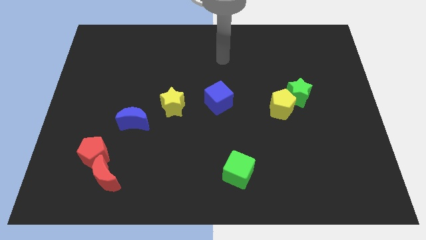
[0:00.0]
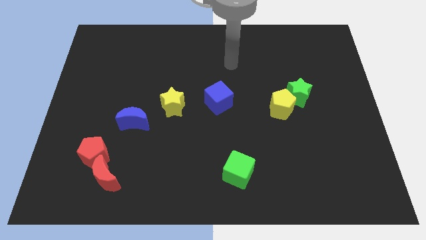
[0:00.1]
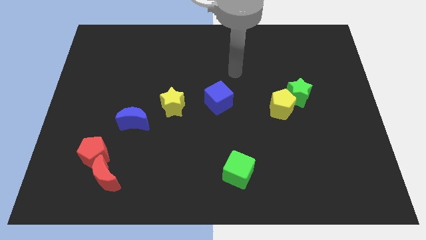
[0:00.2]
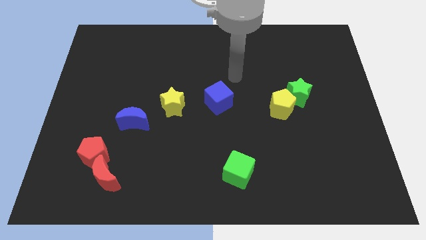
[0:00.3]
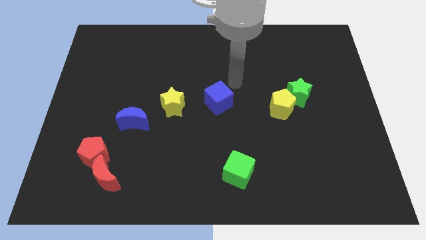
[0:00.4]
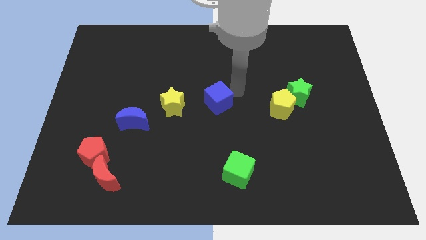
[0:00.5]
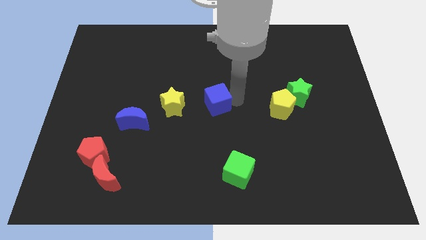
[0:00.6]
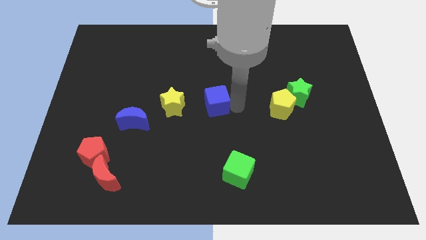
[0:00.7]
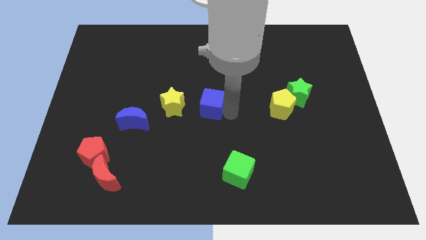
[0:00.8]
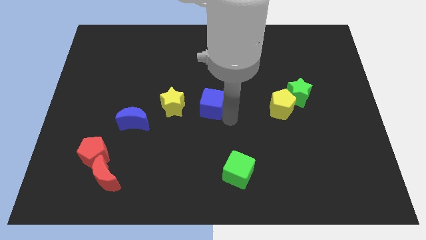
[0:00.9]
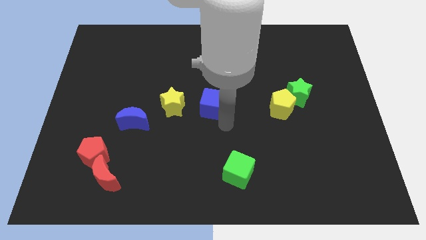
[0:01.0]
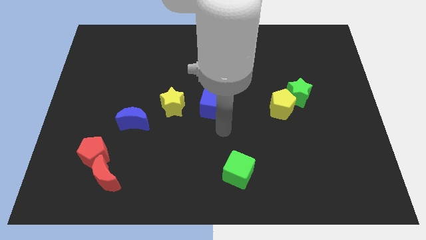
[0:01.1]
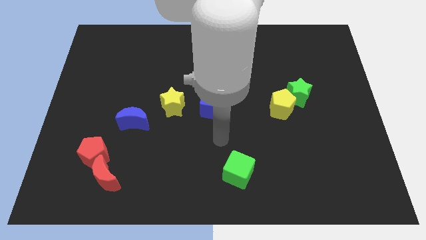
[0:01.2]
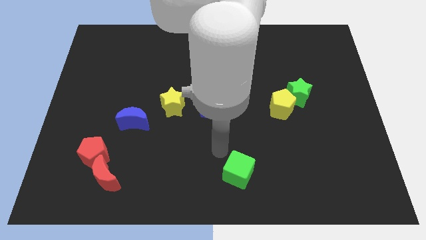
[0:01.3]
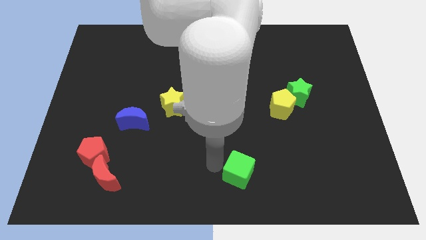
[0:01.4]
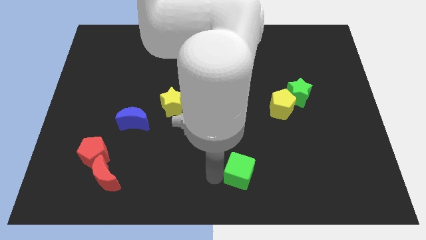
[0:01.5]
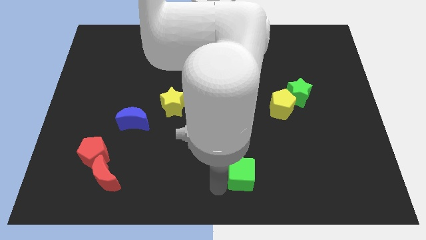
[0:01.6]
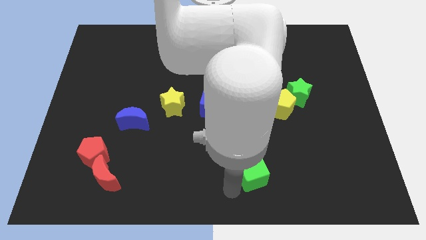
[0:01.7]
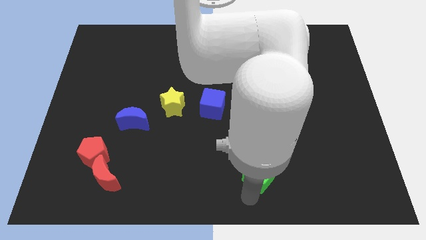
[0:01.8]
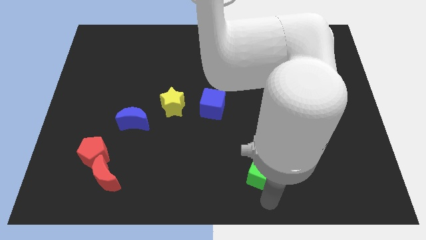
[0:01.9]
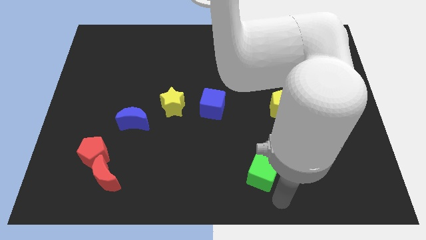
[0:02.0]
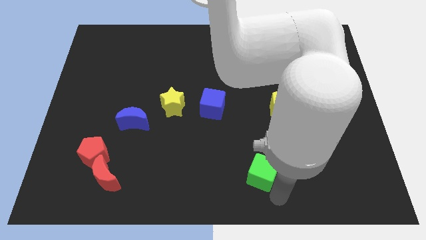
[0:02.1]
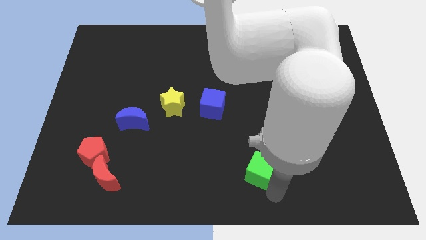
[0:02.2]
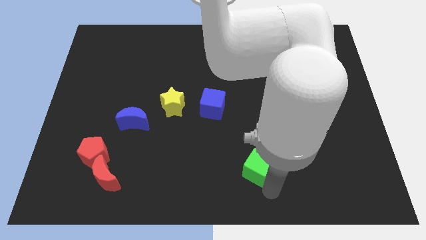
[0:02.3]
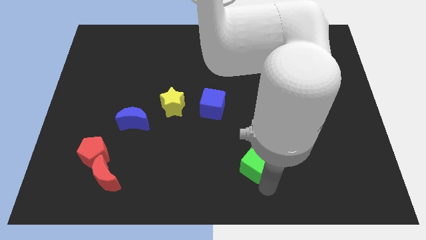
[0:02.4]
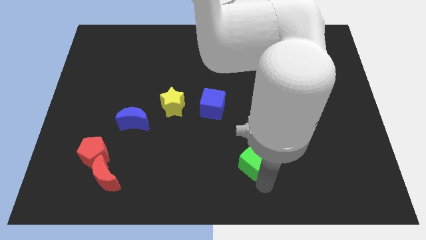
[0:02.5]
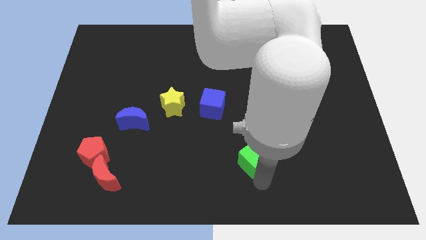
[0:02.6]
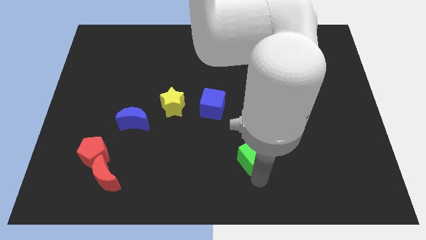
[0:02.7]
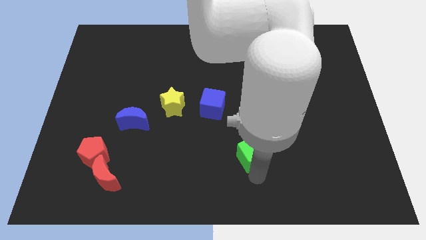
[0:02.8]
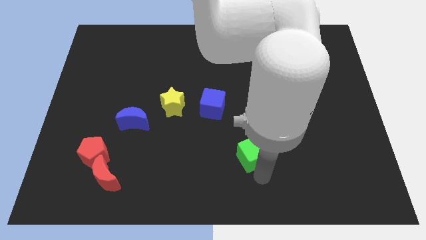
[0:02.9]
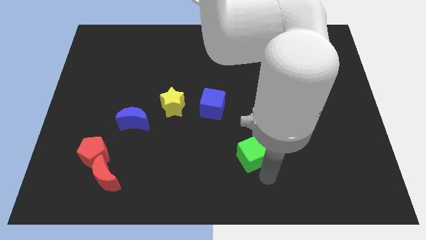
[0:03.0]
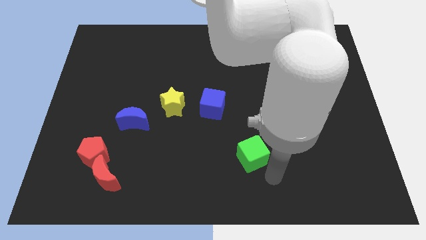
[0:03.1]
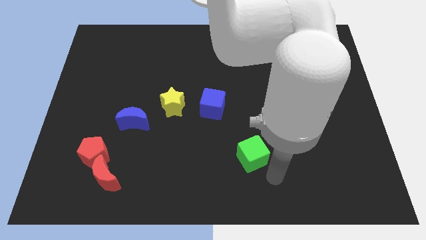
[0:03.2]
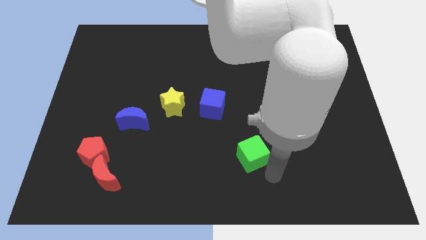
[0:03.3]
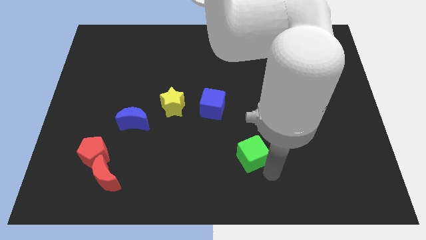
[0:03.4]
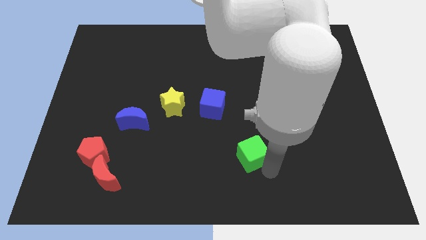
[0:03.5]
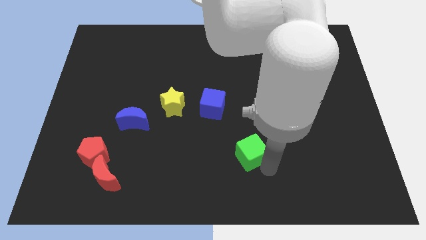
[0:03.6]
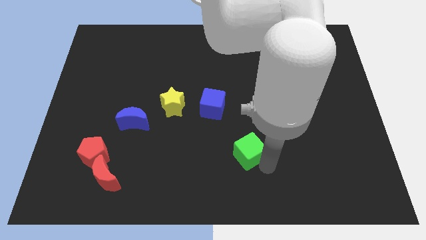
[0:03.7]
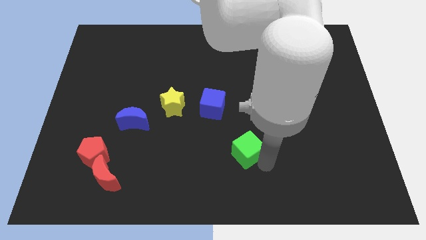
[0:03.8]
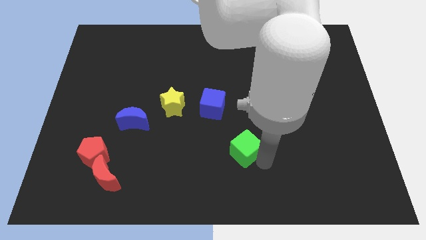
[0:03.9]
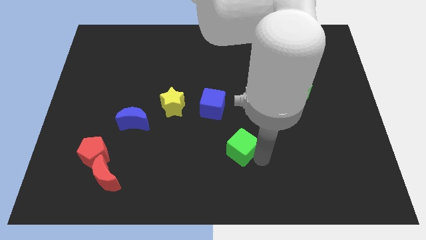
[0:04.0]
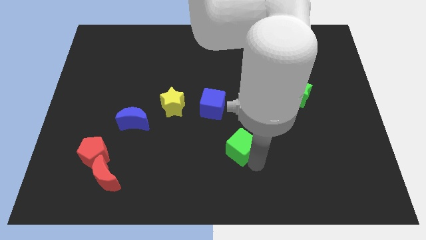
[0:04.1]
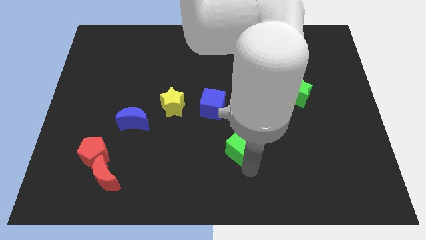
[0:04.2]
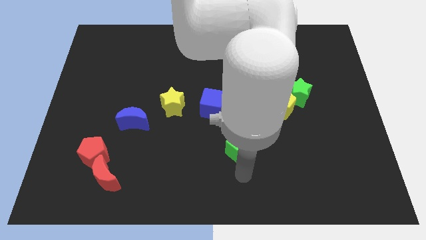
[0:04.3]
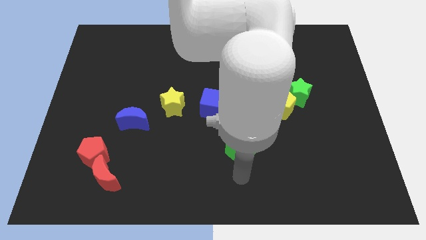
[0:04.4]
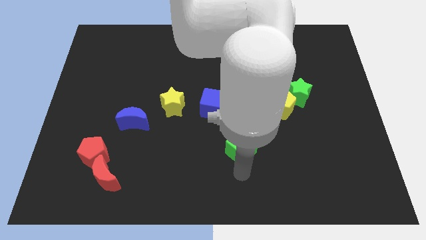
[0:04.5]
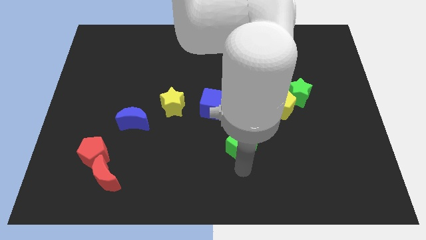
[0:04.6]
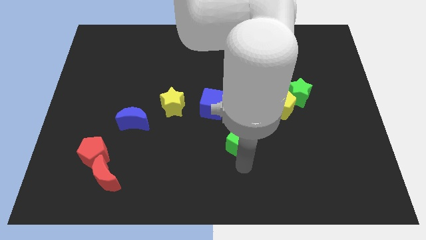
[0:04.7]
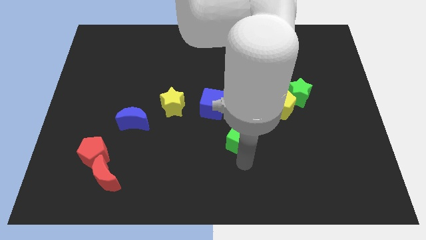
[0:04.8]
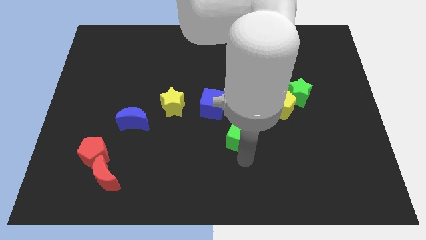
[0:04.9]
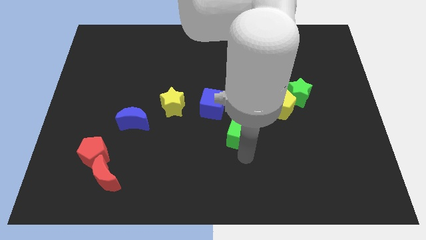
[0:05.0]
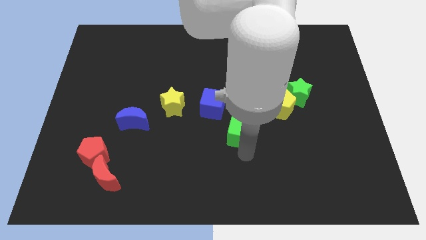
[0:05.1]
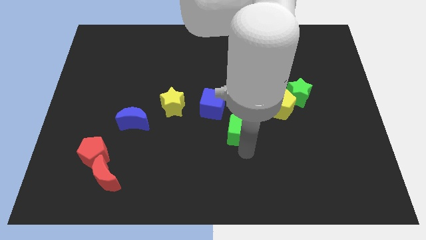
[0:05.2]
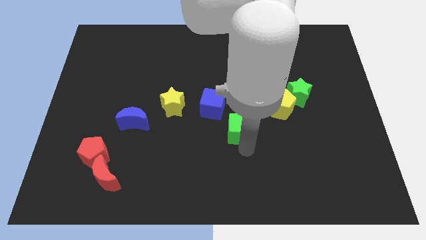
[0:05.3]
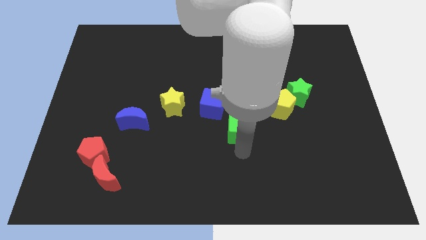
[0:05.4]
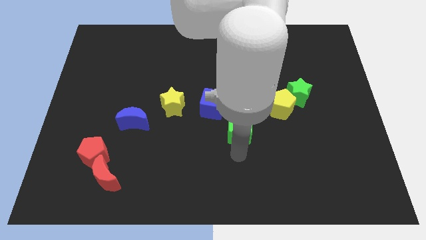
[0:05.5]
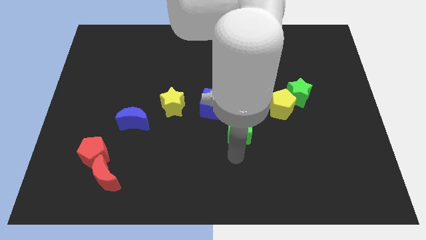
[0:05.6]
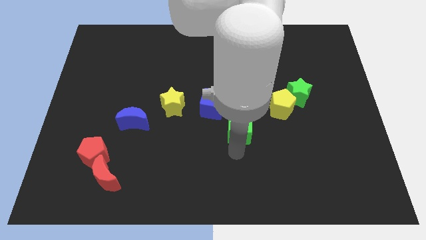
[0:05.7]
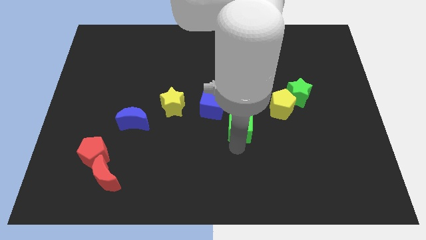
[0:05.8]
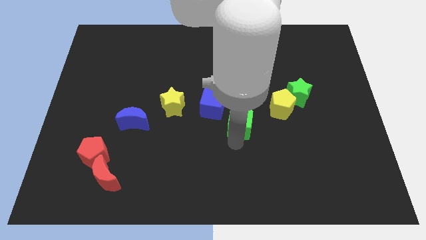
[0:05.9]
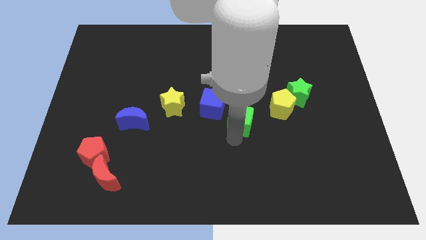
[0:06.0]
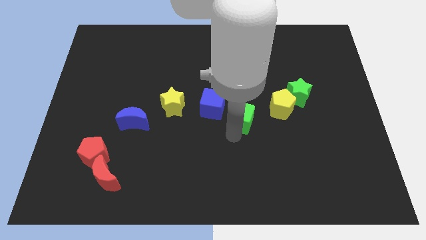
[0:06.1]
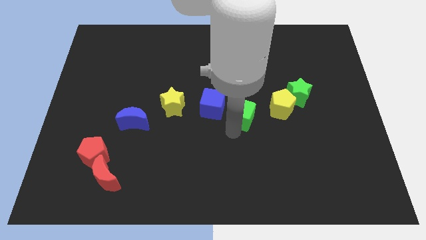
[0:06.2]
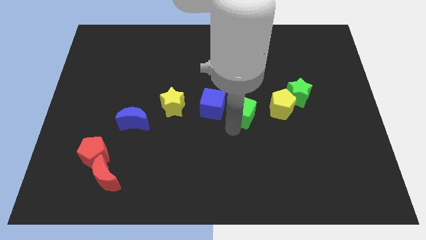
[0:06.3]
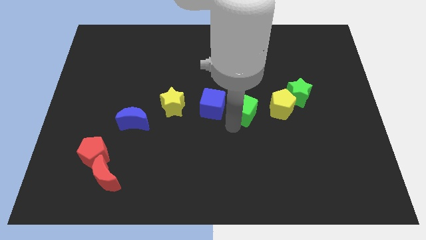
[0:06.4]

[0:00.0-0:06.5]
put the green cube just left of the green star

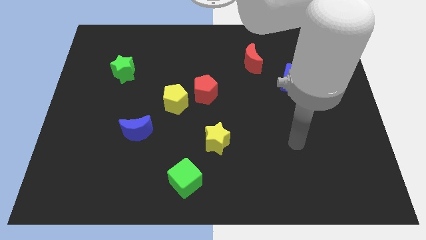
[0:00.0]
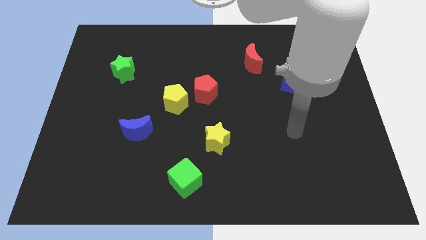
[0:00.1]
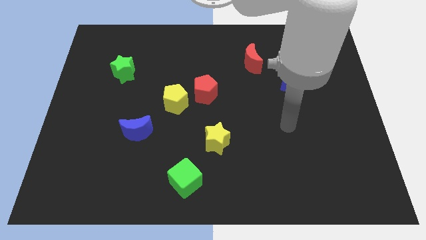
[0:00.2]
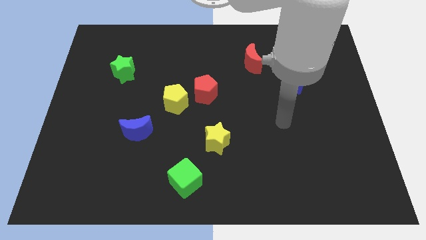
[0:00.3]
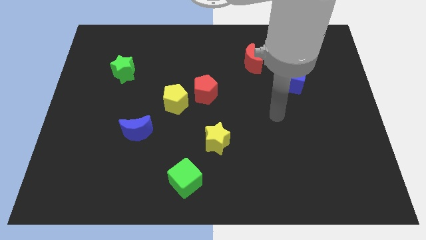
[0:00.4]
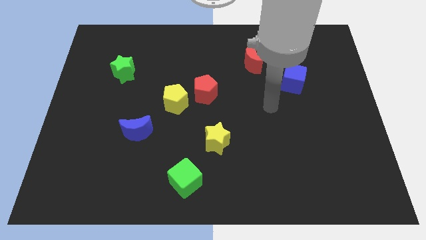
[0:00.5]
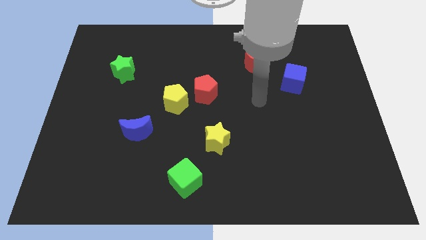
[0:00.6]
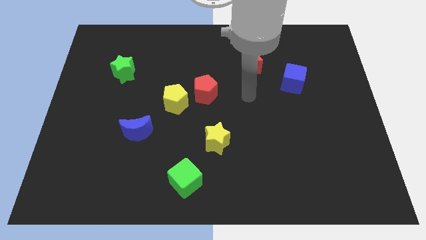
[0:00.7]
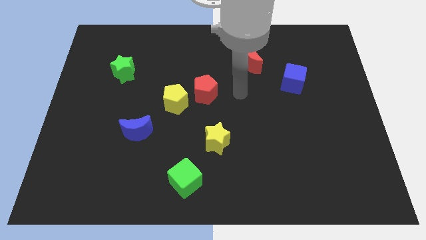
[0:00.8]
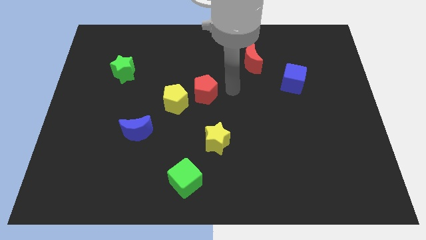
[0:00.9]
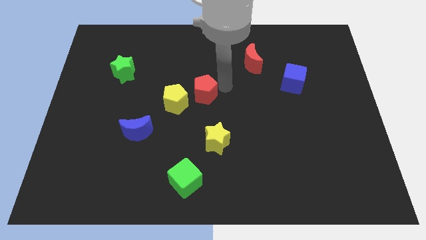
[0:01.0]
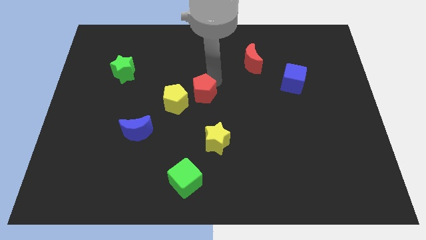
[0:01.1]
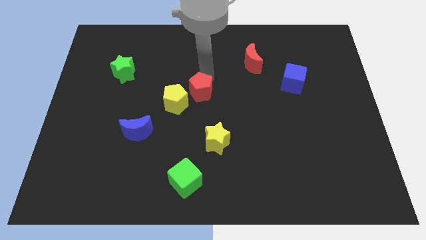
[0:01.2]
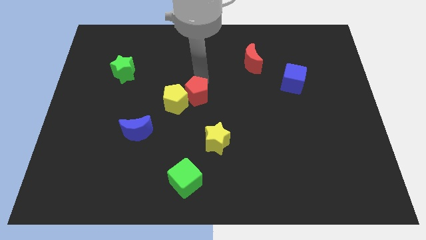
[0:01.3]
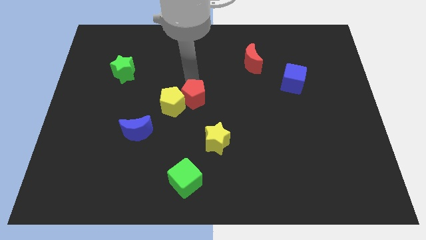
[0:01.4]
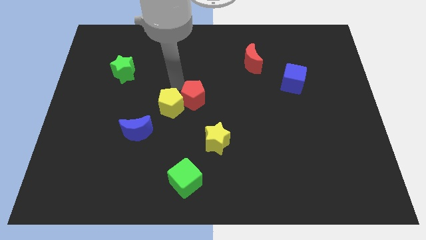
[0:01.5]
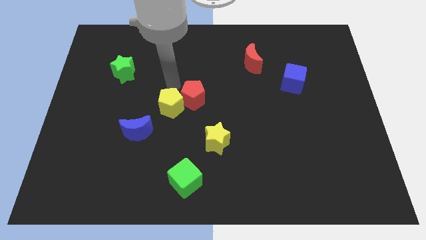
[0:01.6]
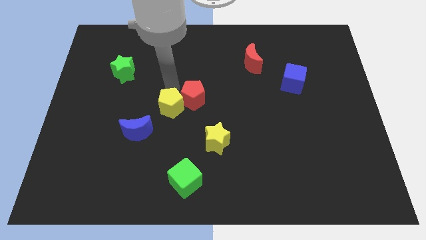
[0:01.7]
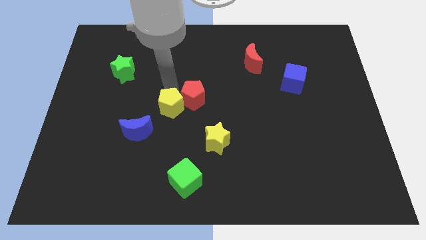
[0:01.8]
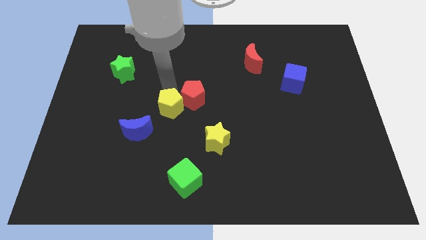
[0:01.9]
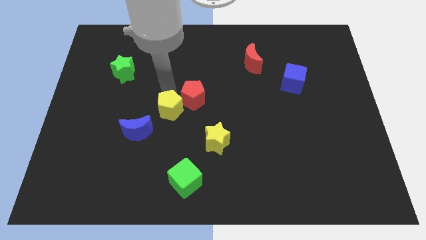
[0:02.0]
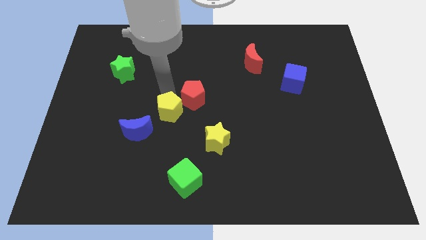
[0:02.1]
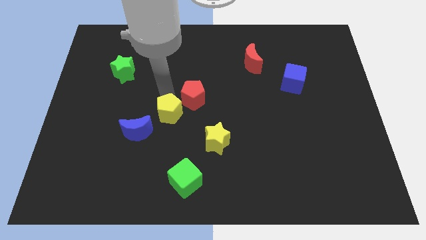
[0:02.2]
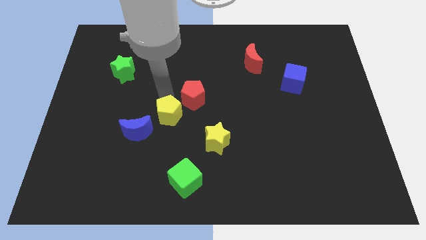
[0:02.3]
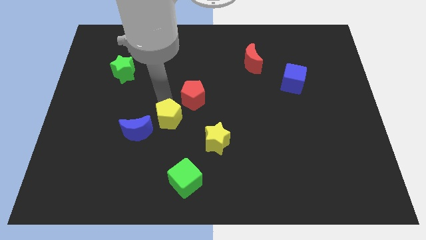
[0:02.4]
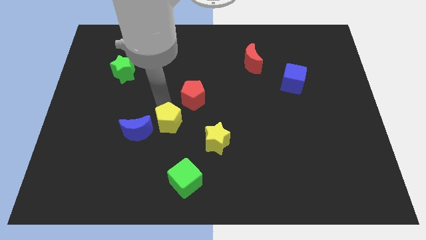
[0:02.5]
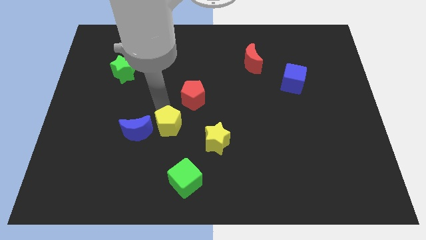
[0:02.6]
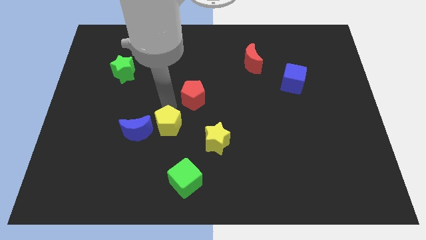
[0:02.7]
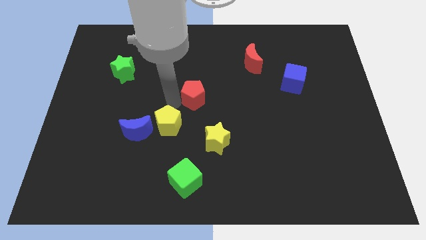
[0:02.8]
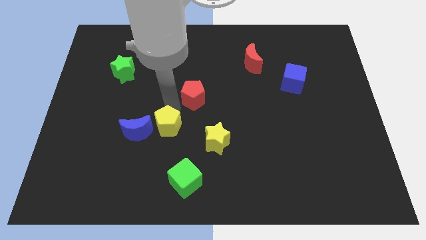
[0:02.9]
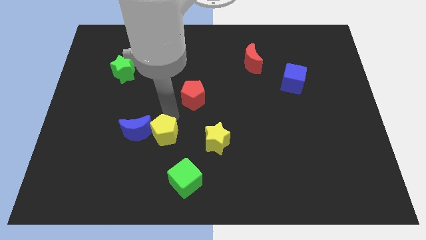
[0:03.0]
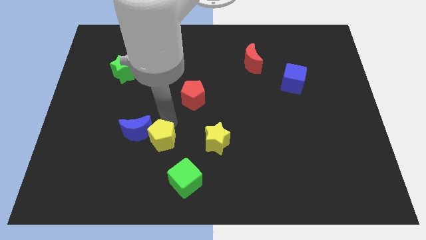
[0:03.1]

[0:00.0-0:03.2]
push the yellow pentagon diagonally up and to the left of the green cube
